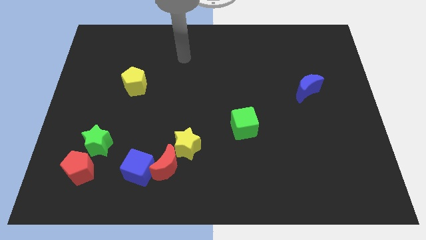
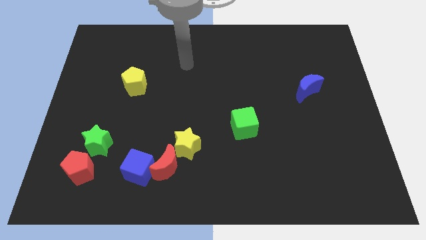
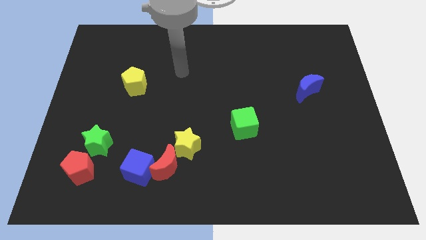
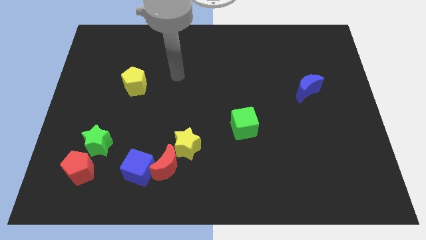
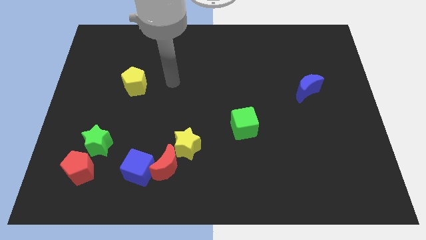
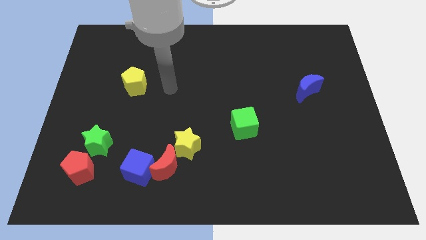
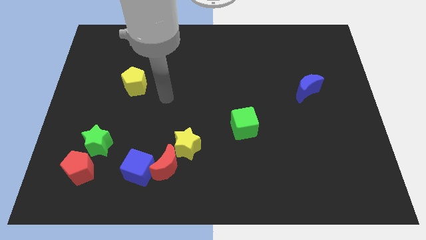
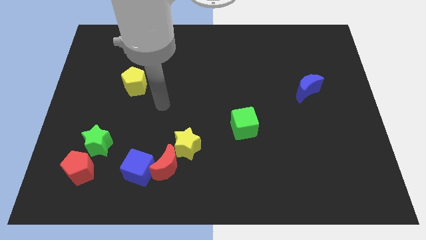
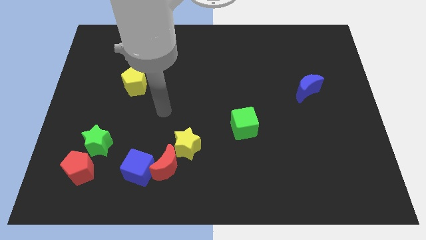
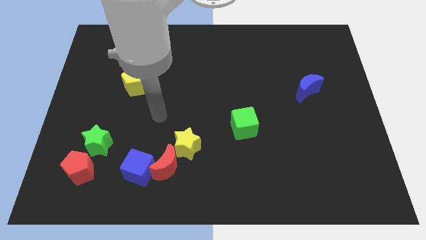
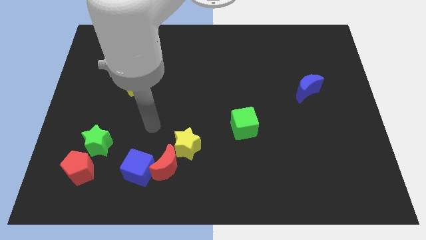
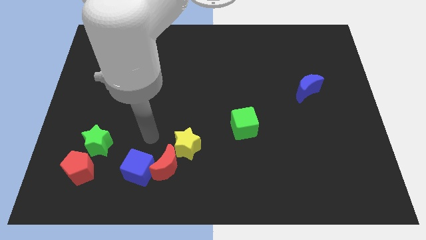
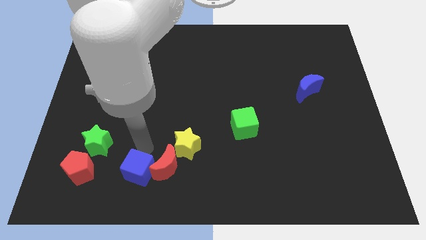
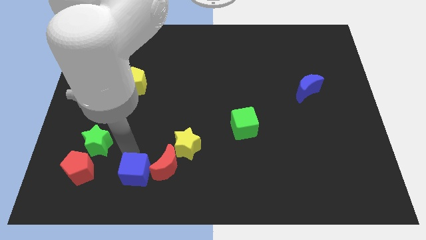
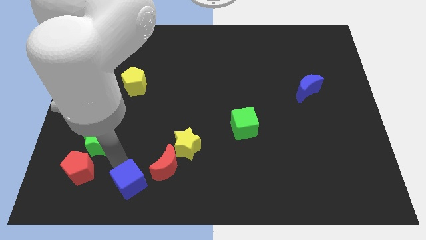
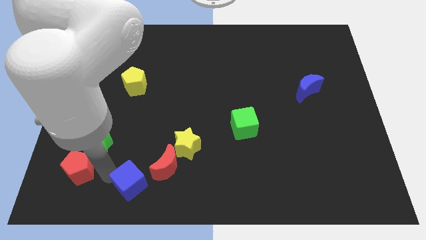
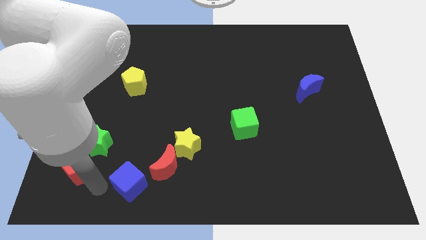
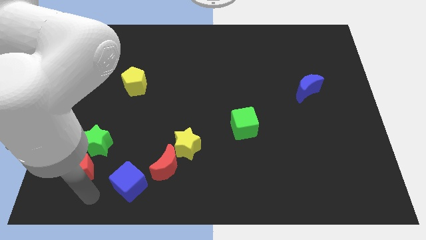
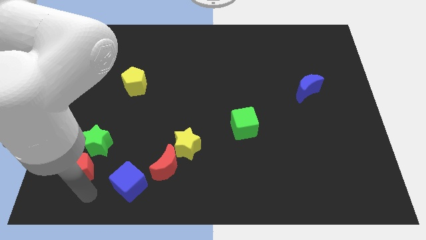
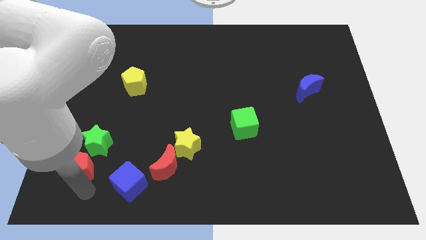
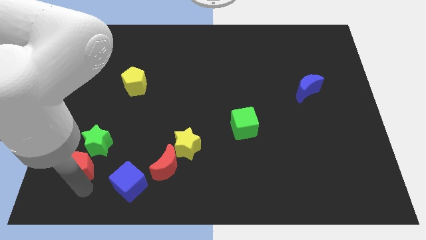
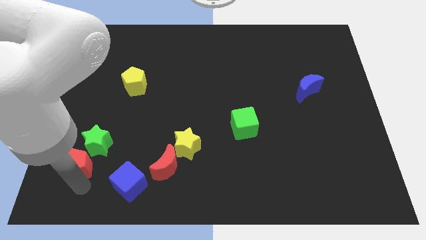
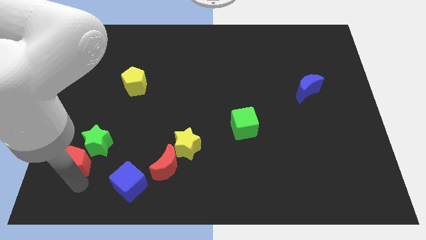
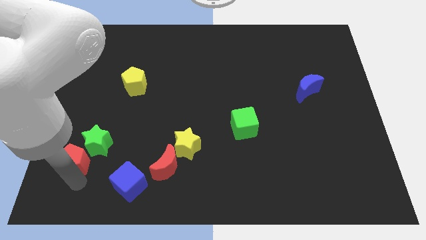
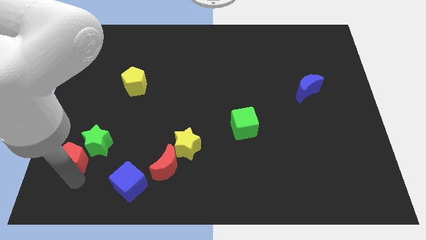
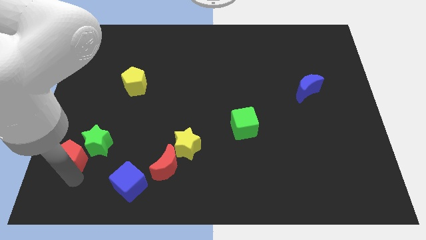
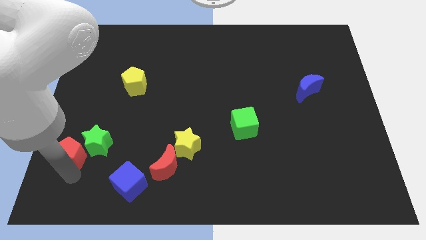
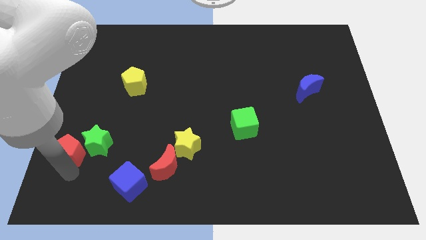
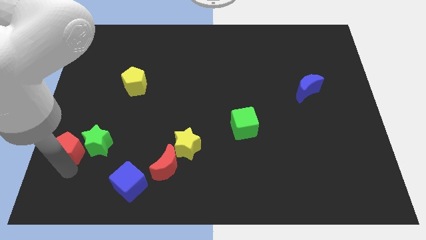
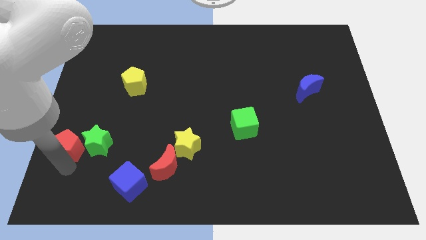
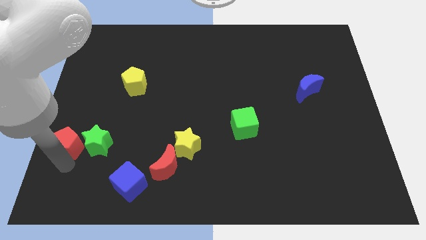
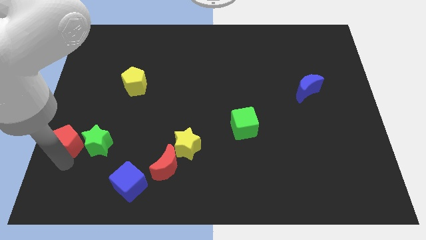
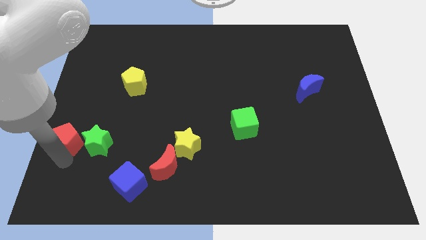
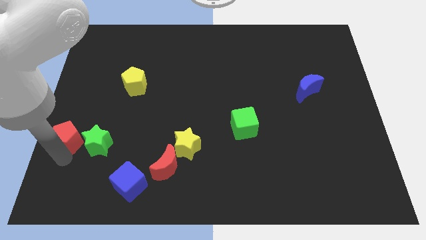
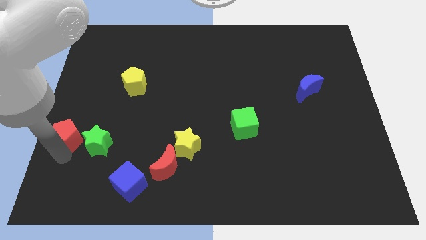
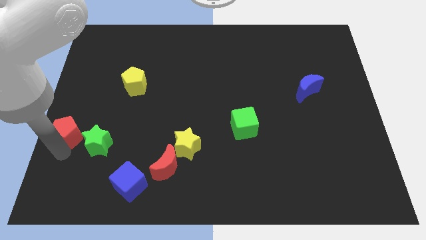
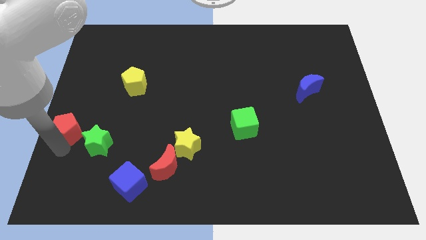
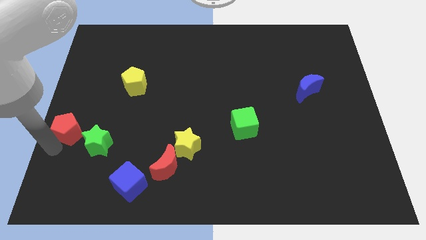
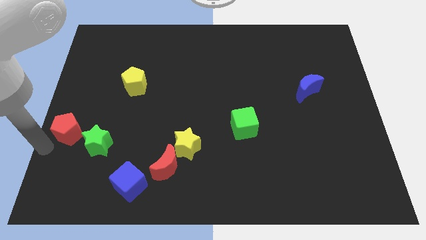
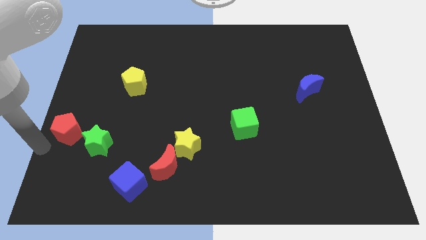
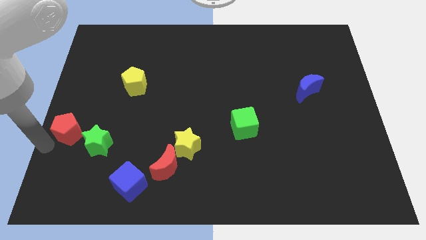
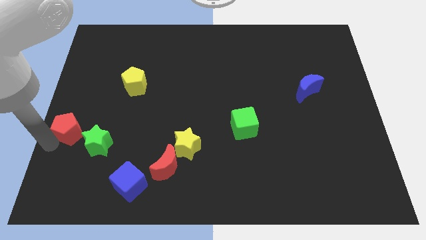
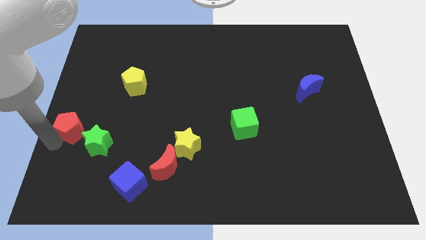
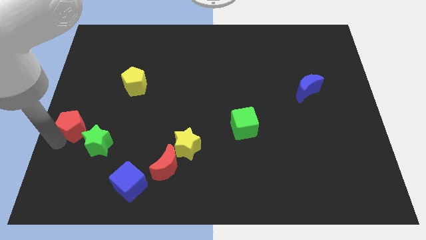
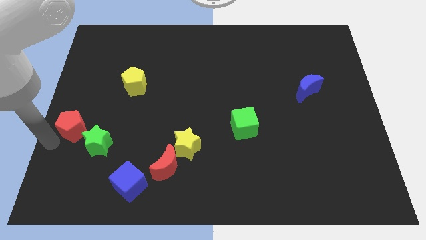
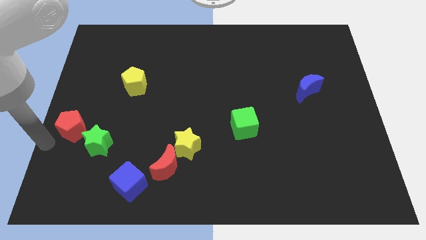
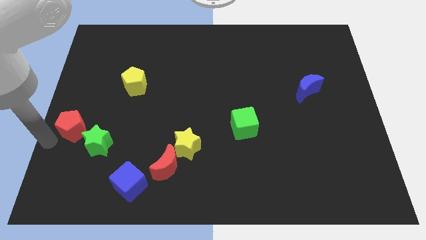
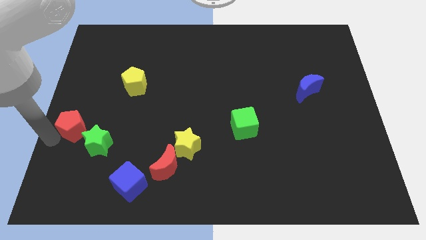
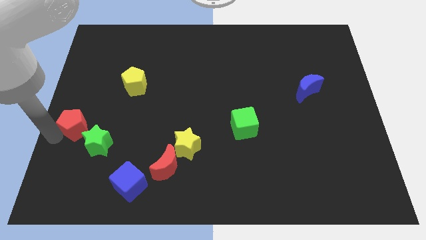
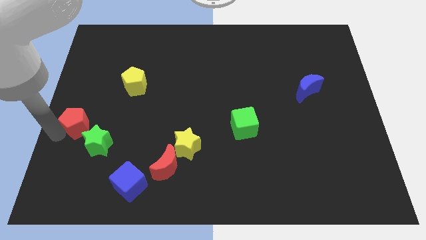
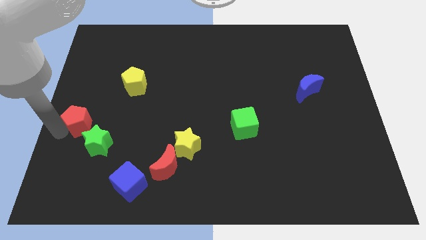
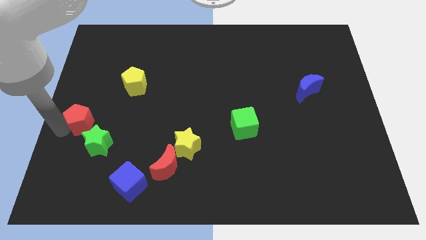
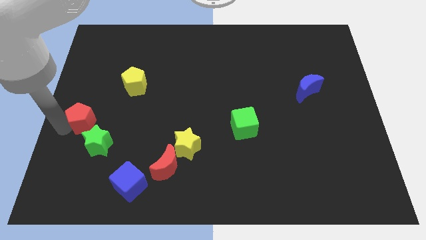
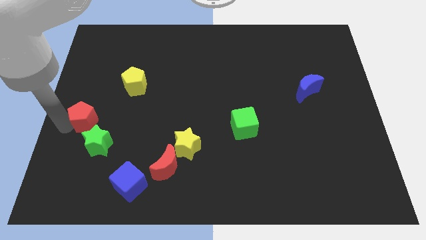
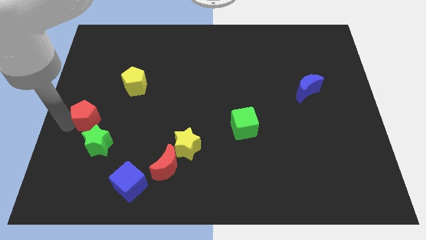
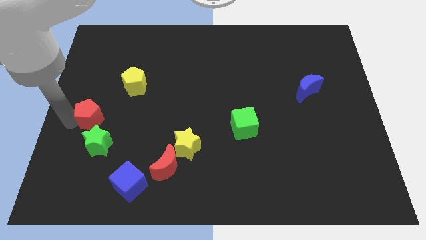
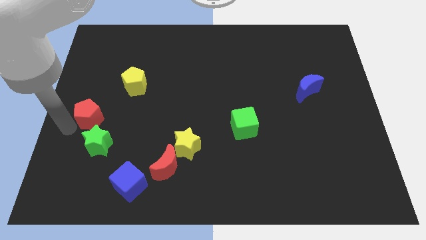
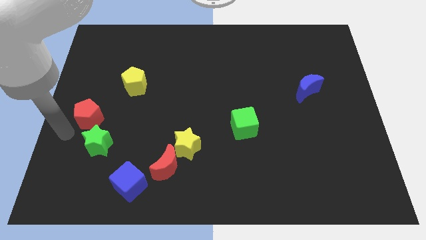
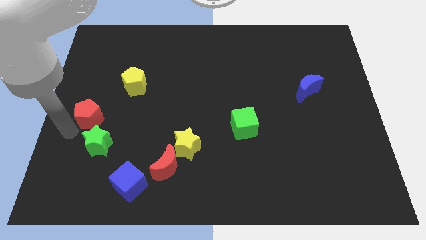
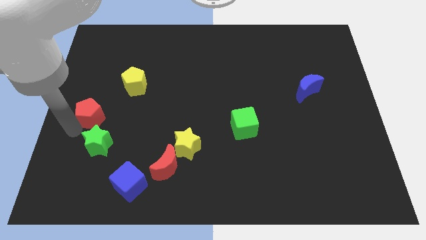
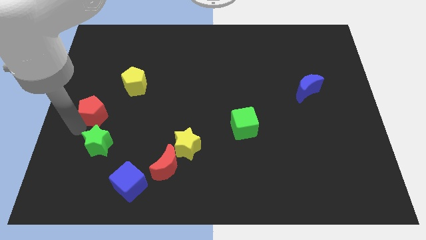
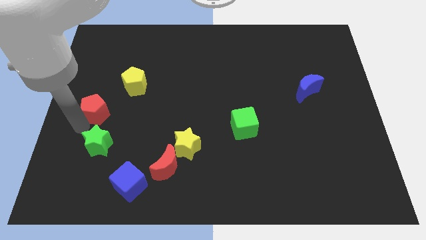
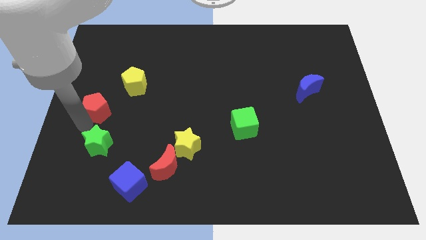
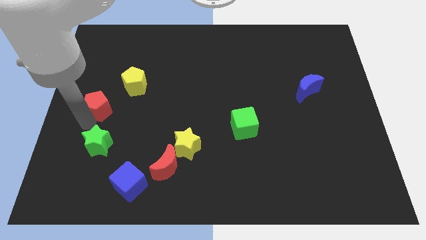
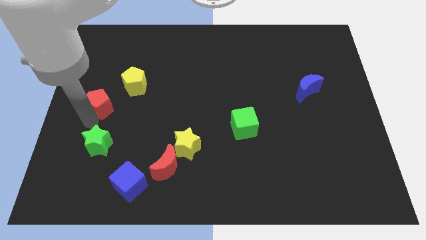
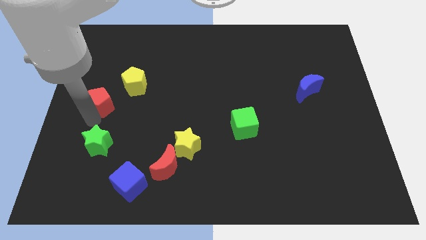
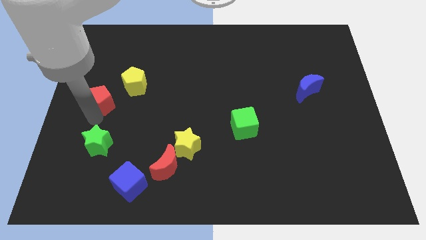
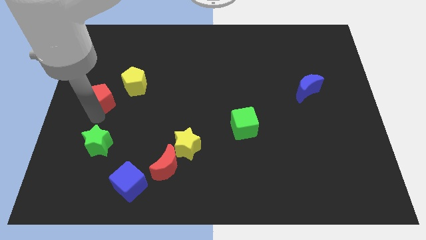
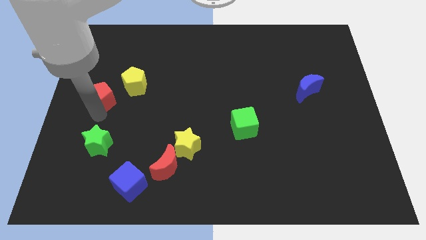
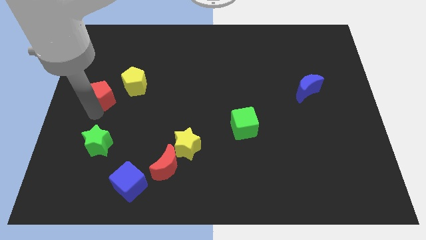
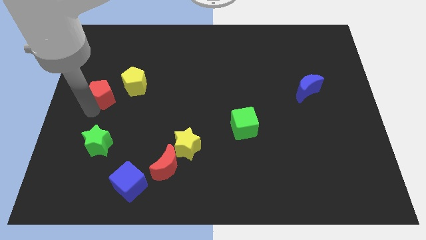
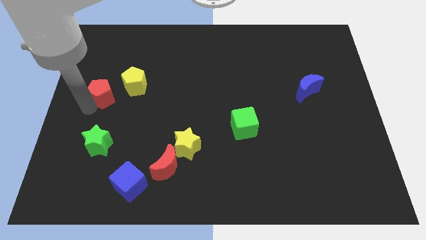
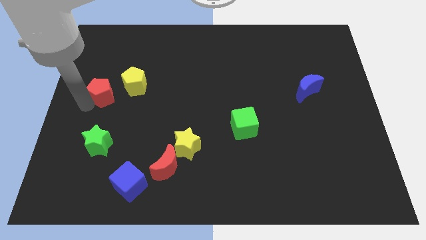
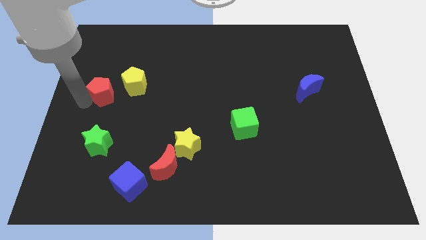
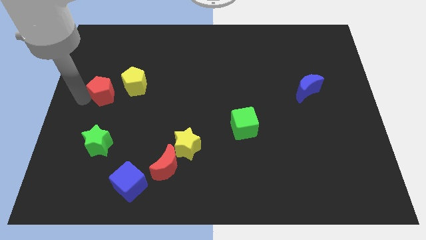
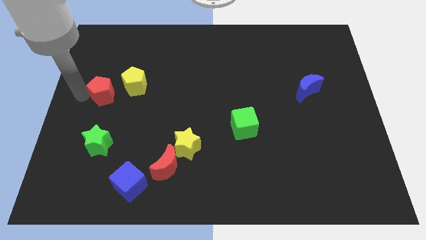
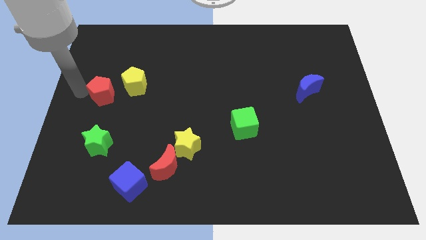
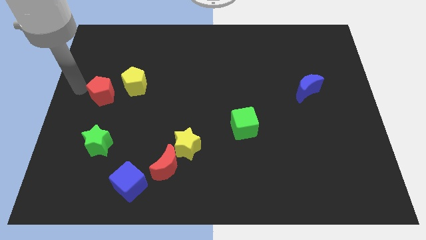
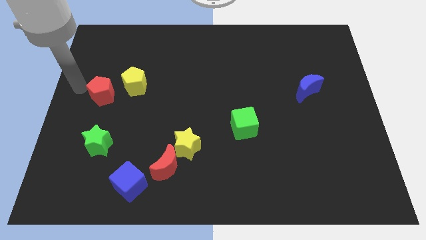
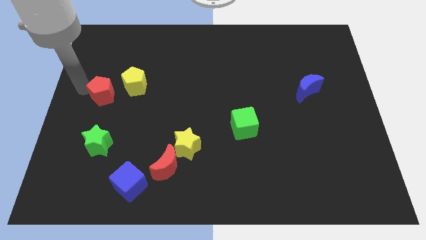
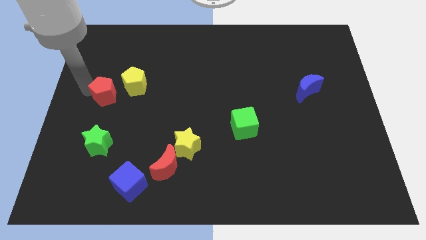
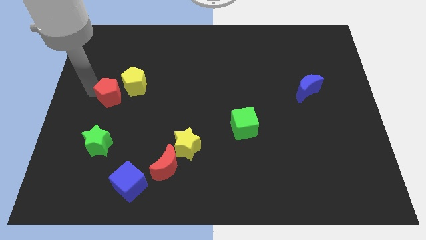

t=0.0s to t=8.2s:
slide the red pentagon close to the yellow pentagon
